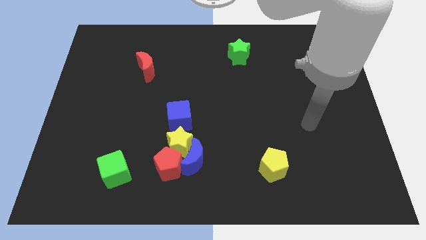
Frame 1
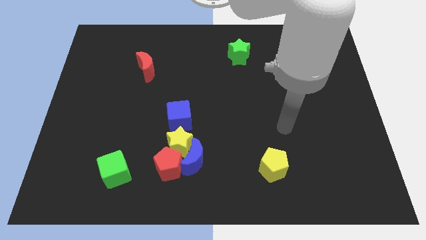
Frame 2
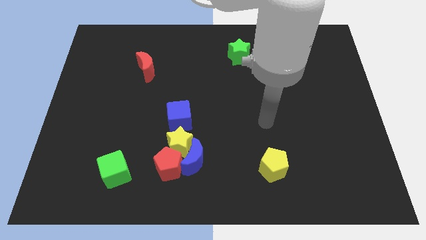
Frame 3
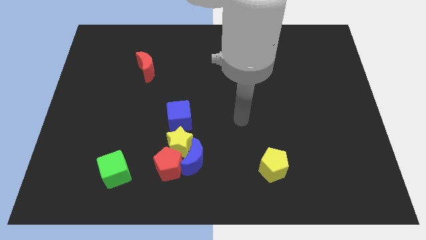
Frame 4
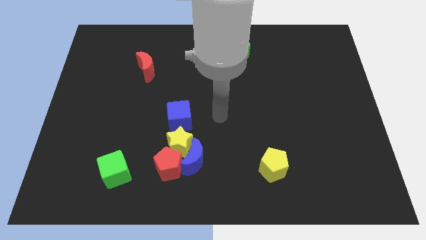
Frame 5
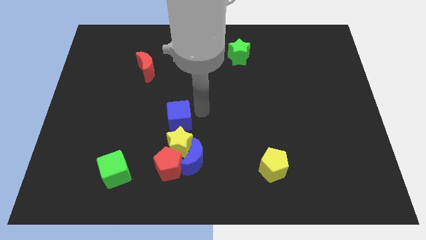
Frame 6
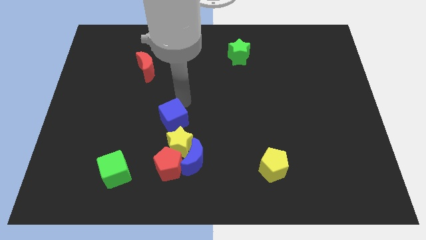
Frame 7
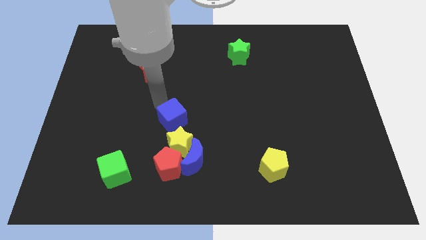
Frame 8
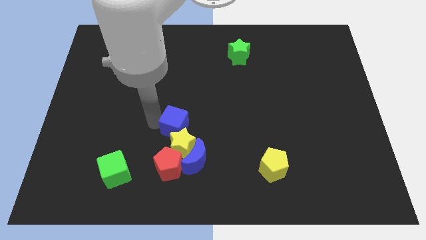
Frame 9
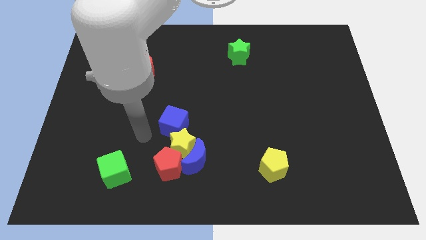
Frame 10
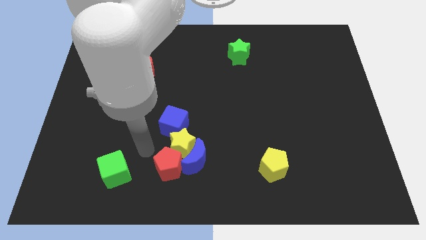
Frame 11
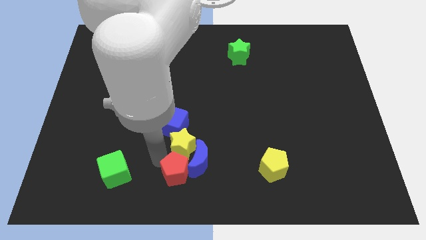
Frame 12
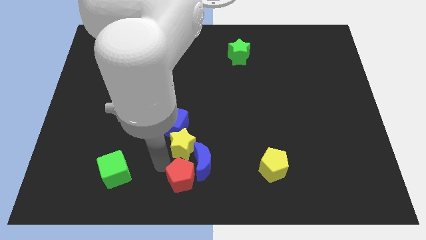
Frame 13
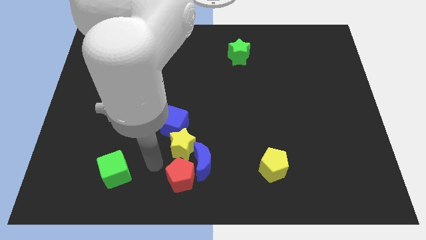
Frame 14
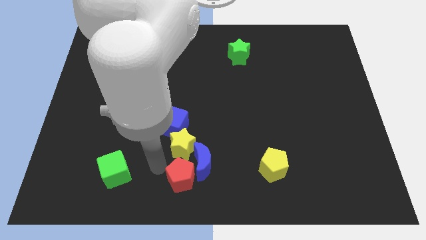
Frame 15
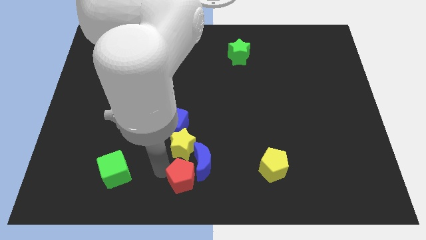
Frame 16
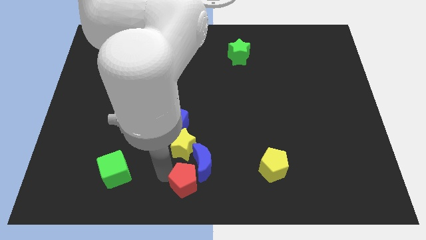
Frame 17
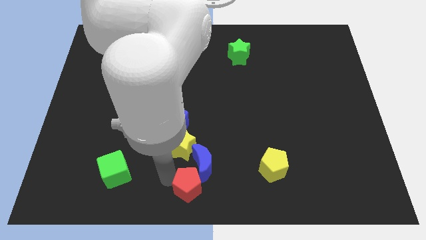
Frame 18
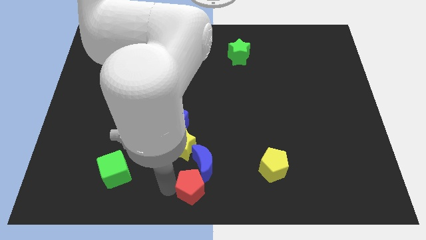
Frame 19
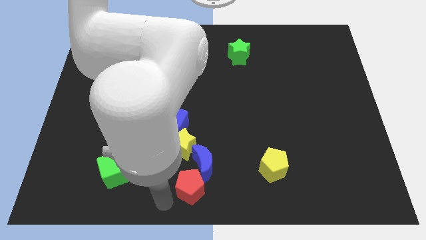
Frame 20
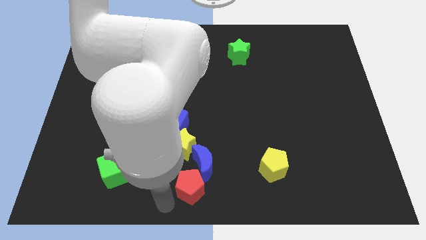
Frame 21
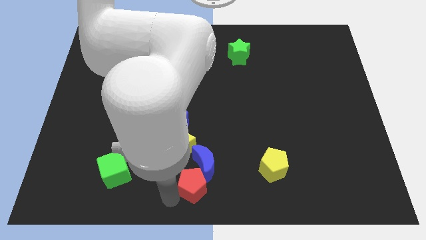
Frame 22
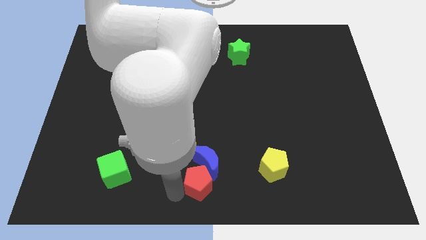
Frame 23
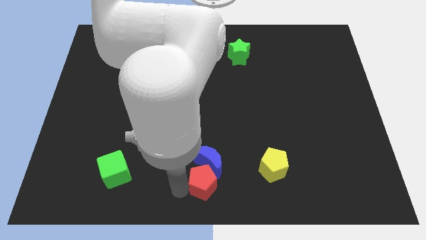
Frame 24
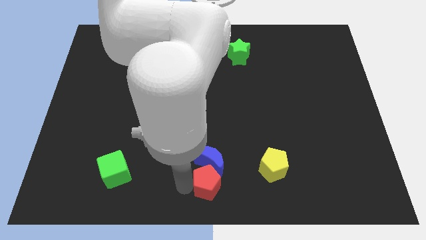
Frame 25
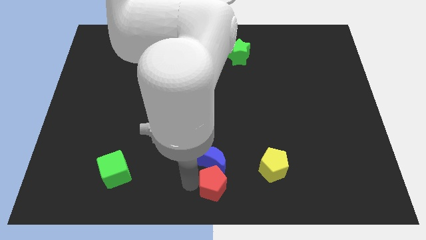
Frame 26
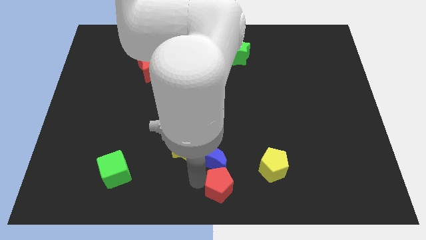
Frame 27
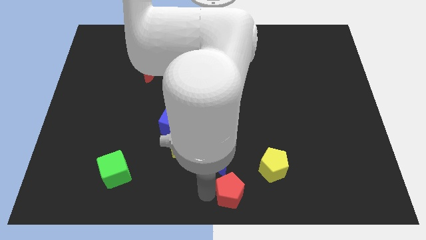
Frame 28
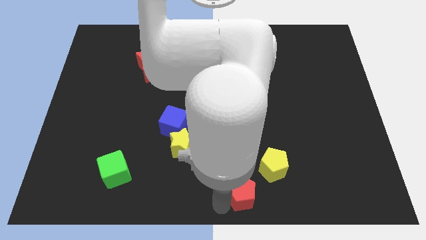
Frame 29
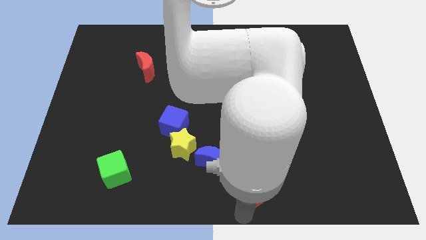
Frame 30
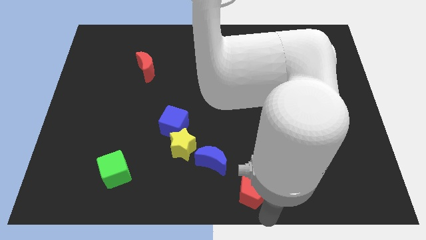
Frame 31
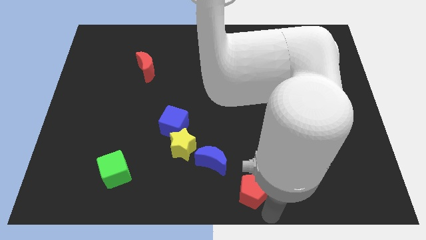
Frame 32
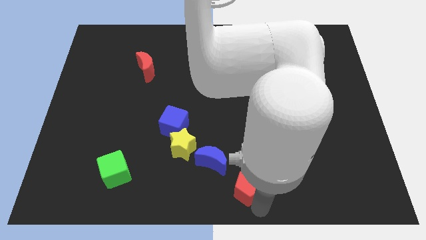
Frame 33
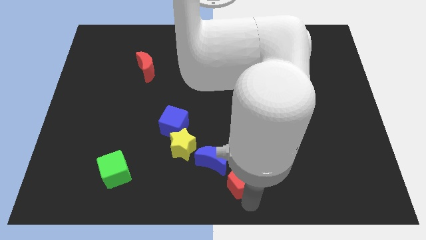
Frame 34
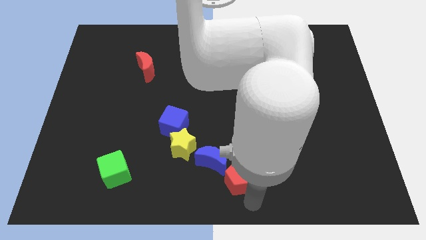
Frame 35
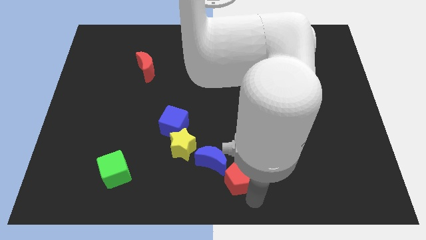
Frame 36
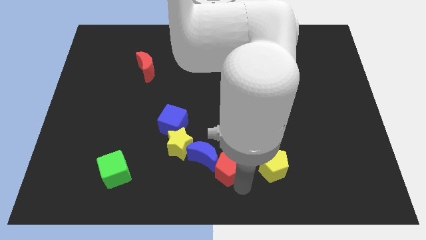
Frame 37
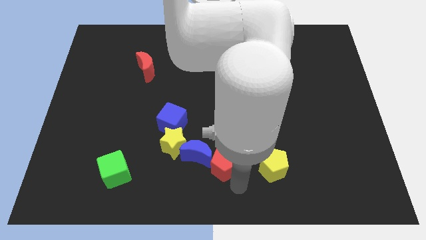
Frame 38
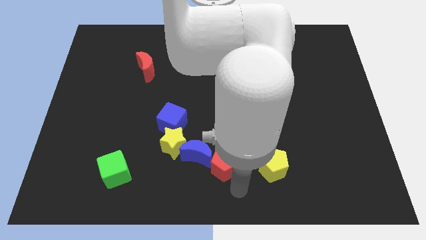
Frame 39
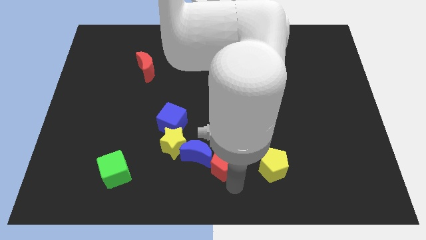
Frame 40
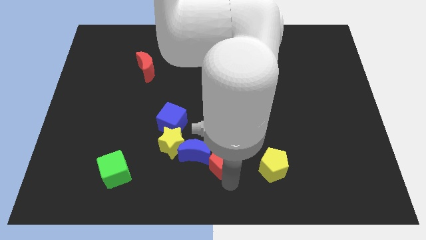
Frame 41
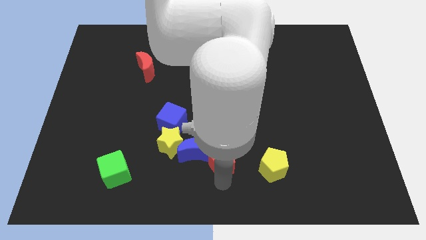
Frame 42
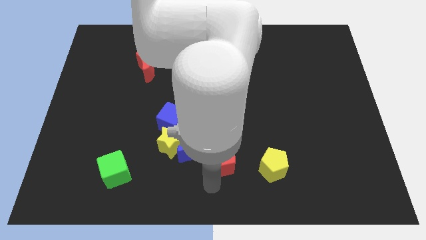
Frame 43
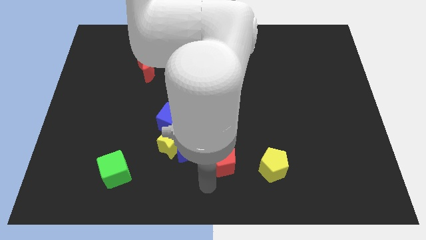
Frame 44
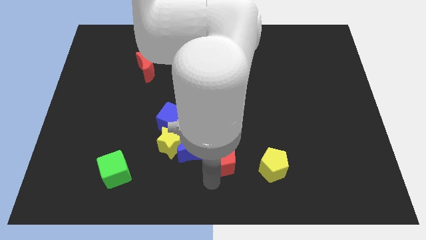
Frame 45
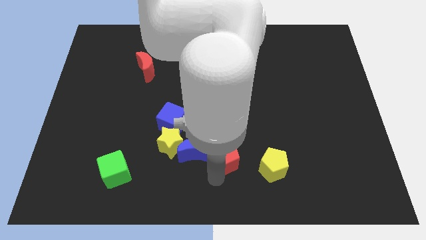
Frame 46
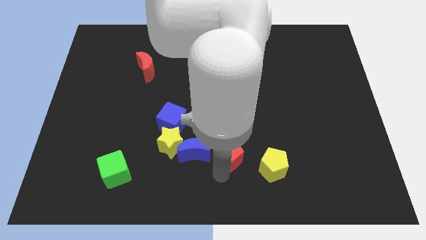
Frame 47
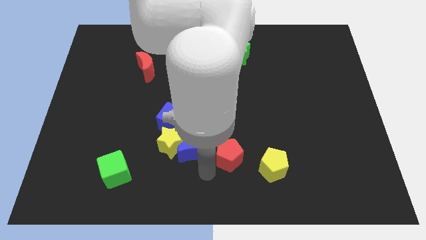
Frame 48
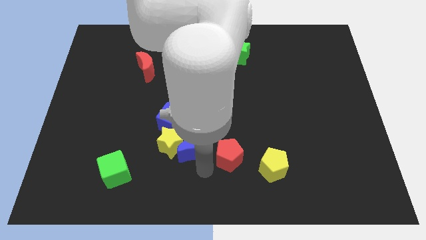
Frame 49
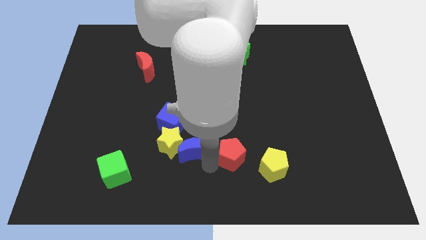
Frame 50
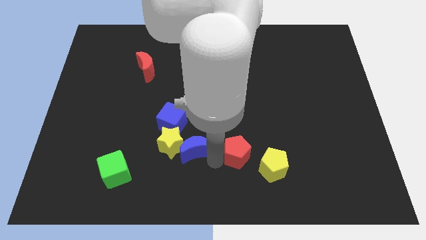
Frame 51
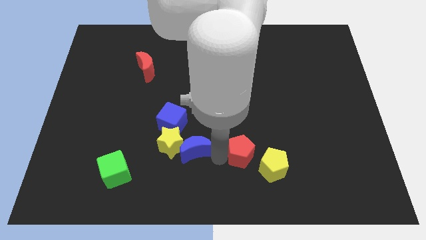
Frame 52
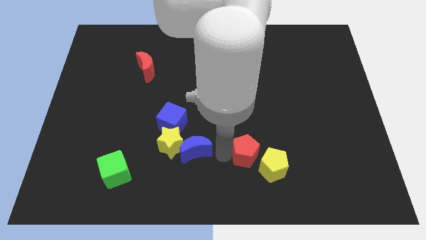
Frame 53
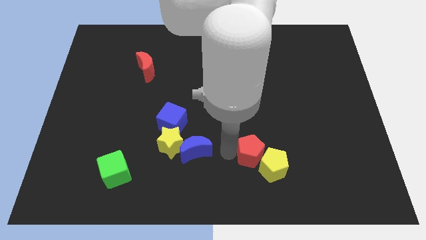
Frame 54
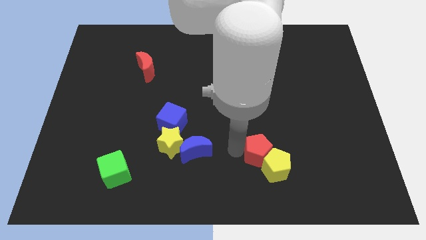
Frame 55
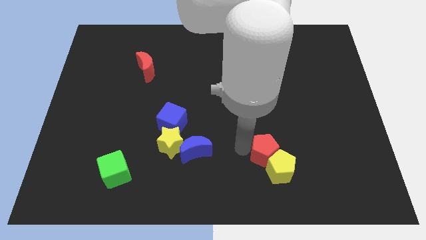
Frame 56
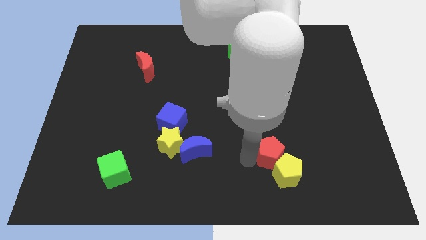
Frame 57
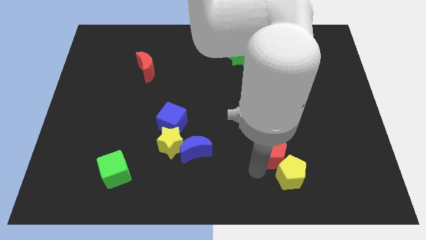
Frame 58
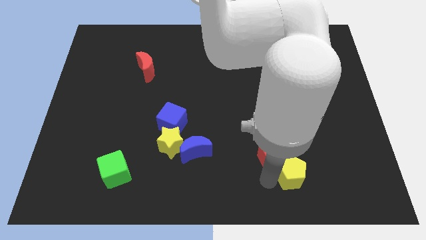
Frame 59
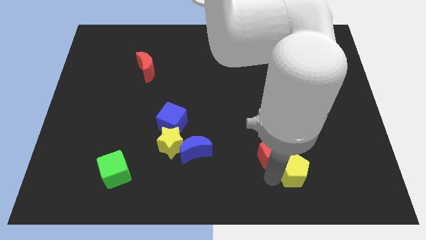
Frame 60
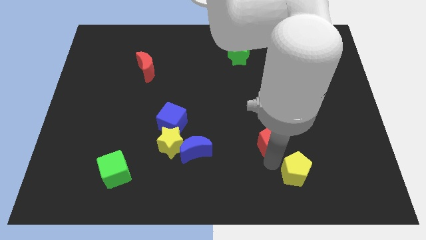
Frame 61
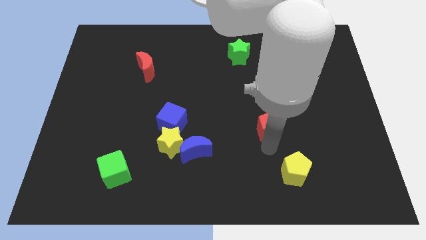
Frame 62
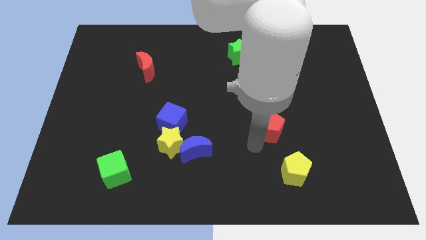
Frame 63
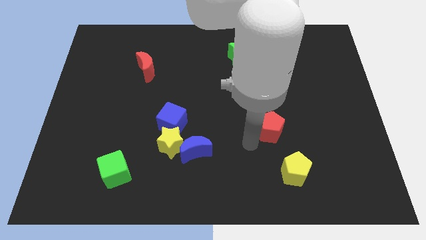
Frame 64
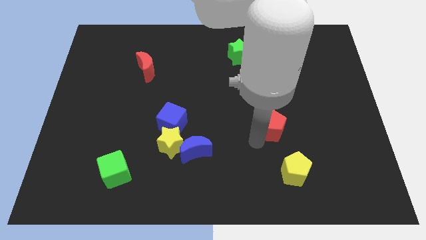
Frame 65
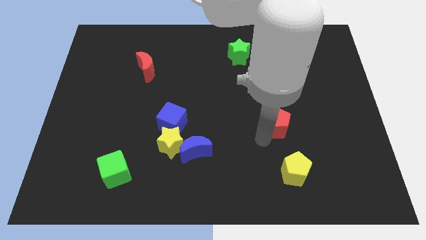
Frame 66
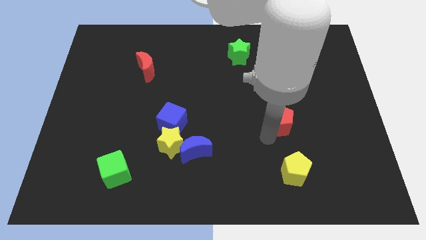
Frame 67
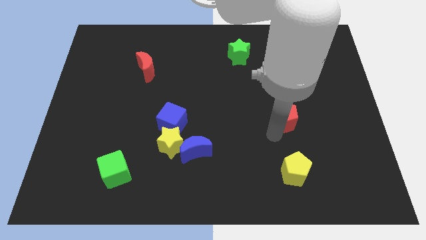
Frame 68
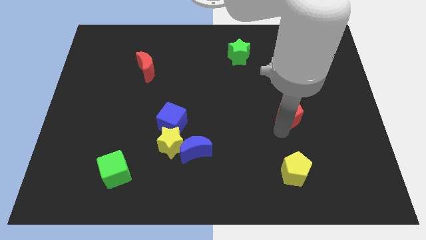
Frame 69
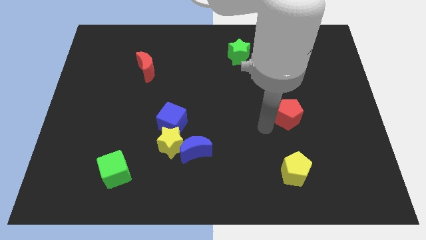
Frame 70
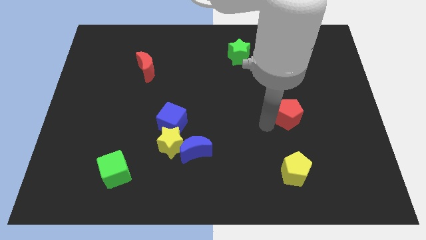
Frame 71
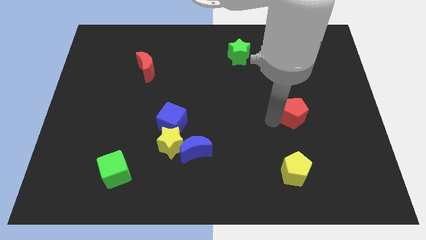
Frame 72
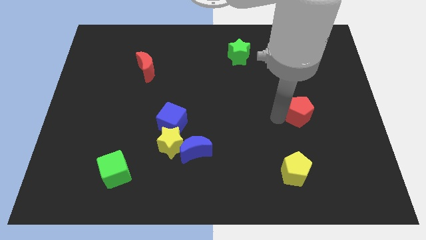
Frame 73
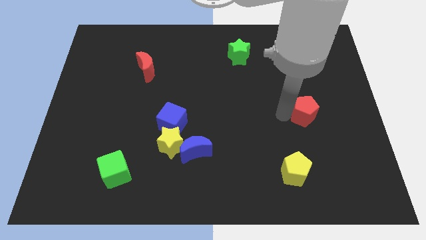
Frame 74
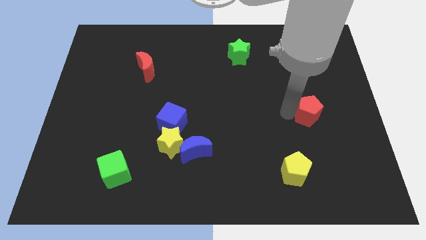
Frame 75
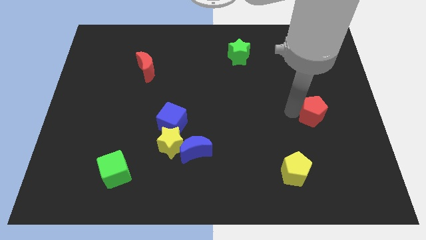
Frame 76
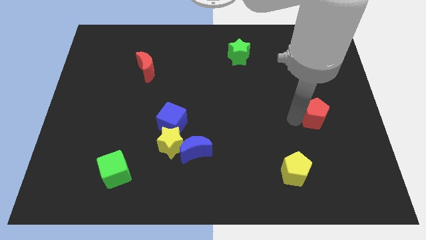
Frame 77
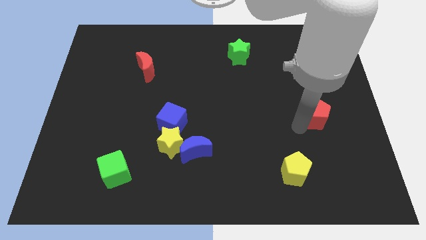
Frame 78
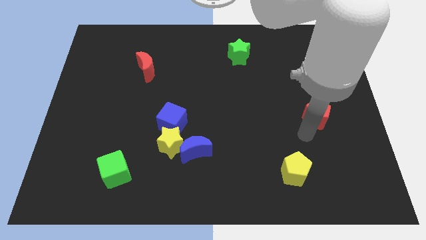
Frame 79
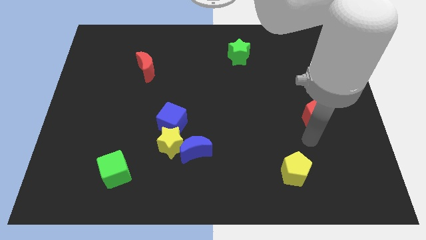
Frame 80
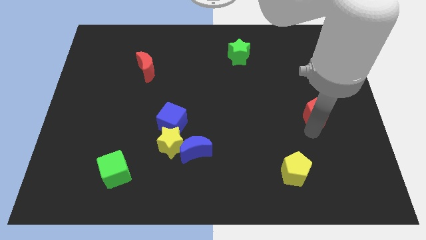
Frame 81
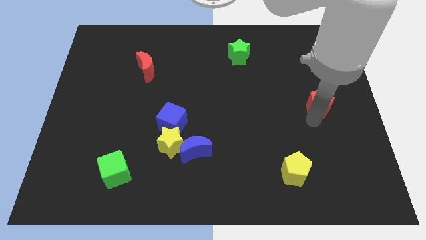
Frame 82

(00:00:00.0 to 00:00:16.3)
push the red pentagon to the center right
